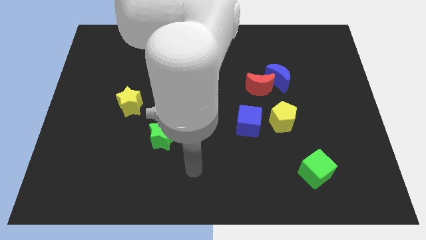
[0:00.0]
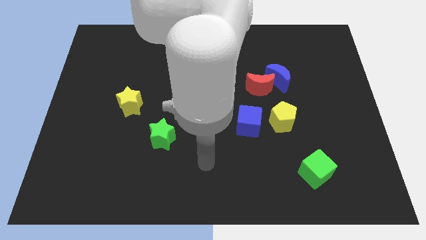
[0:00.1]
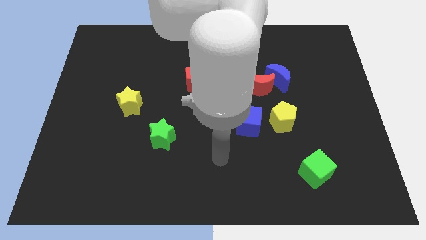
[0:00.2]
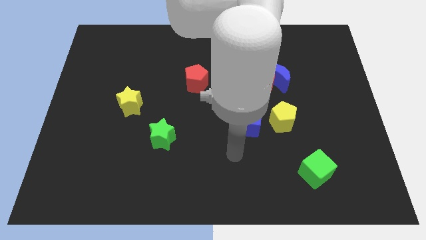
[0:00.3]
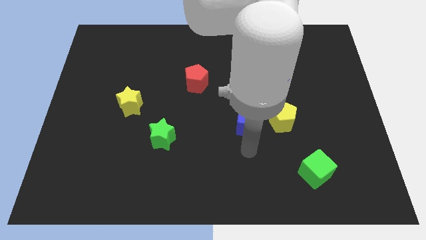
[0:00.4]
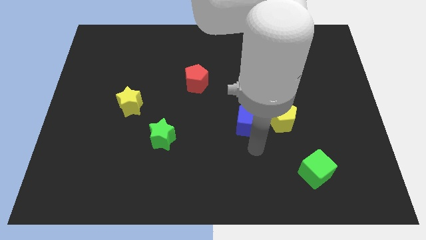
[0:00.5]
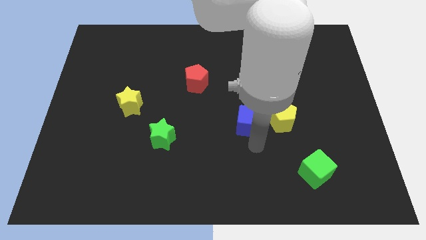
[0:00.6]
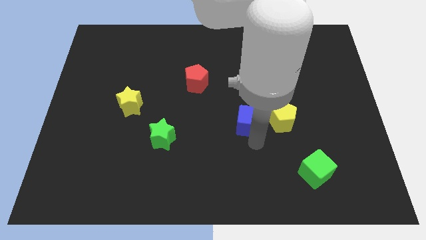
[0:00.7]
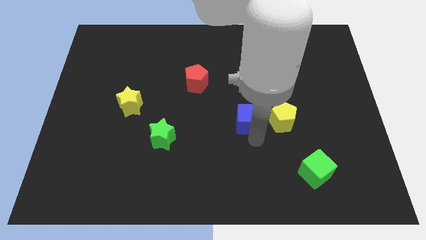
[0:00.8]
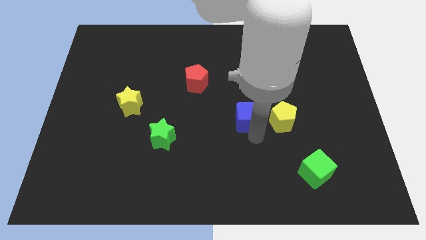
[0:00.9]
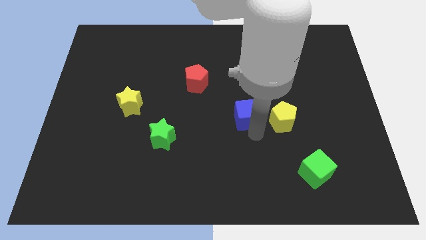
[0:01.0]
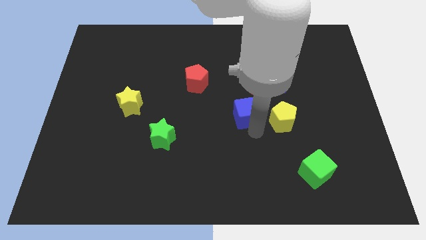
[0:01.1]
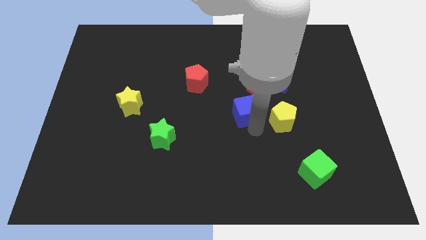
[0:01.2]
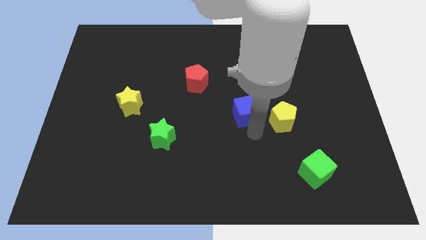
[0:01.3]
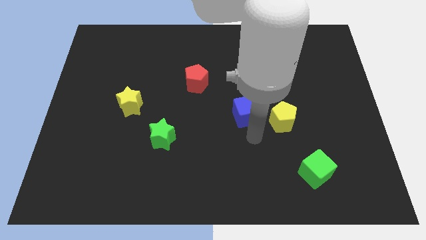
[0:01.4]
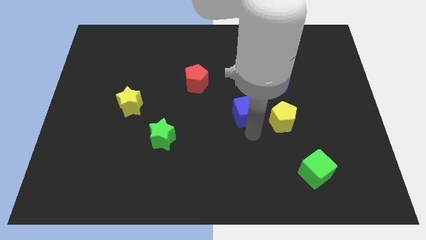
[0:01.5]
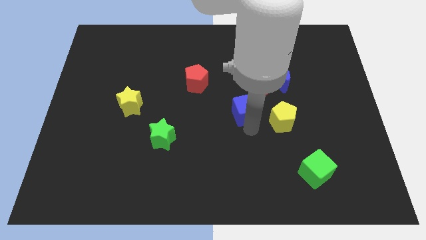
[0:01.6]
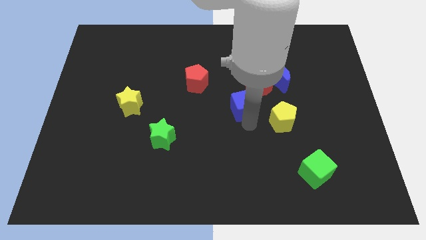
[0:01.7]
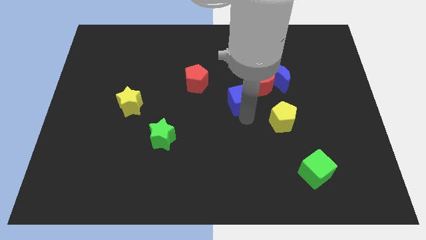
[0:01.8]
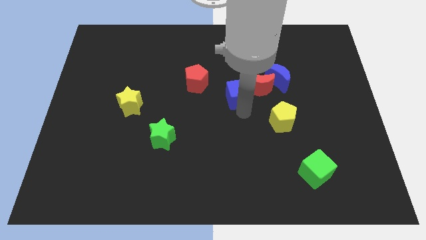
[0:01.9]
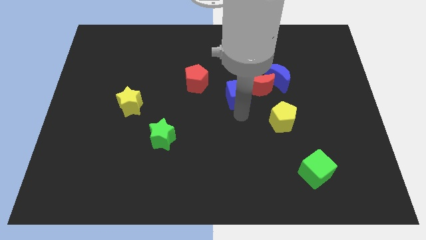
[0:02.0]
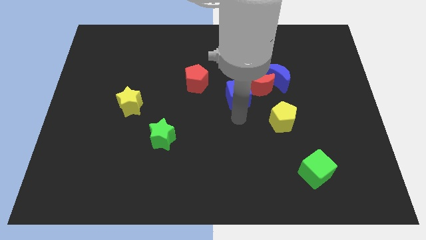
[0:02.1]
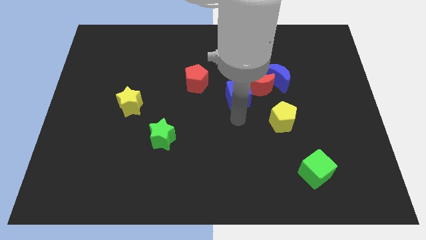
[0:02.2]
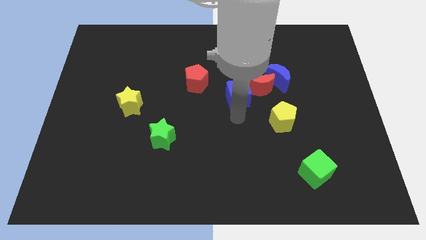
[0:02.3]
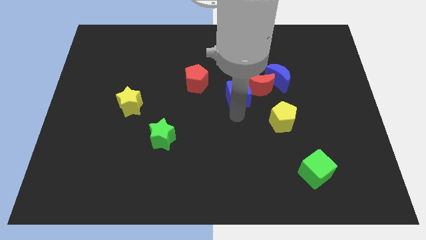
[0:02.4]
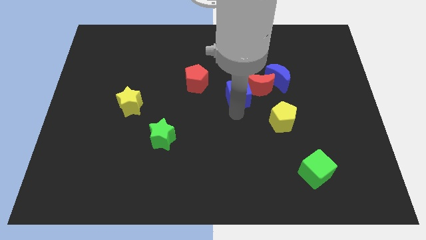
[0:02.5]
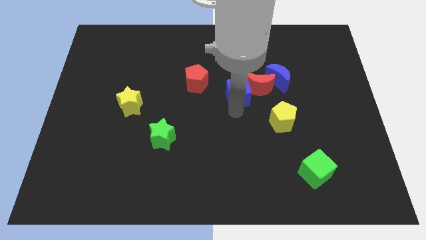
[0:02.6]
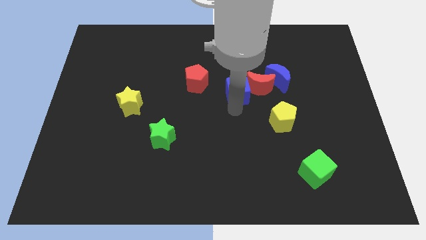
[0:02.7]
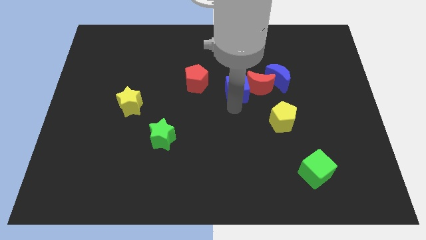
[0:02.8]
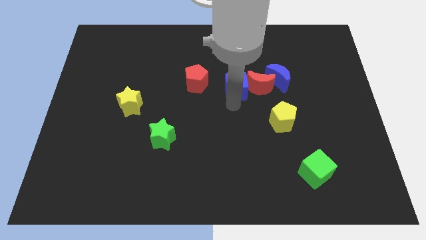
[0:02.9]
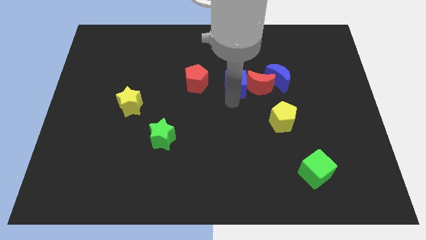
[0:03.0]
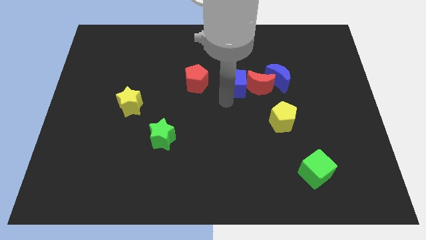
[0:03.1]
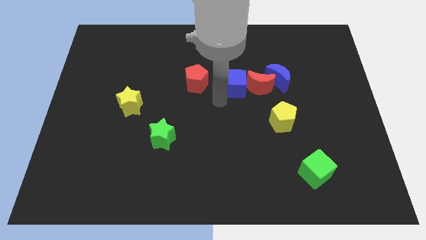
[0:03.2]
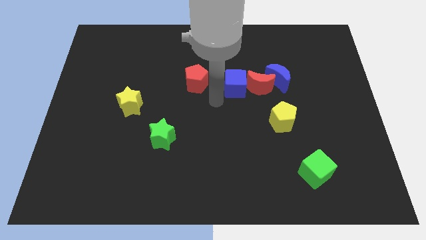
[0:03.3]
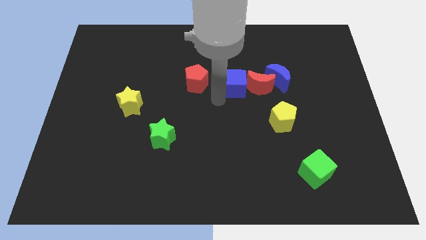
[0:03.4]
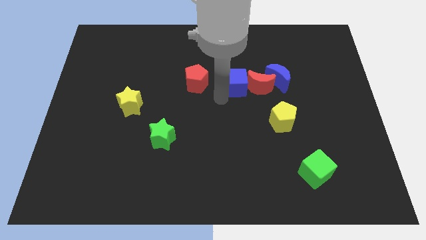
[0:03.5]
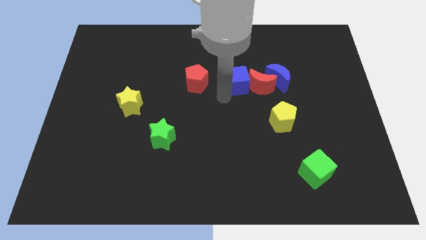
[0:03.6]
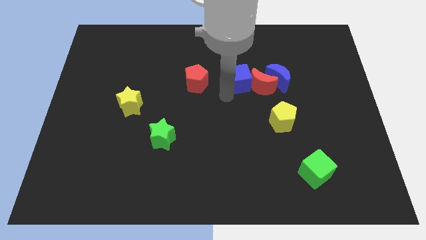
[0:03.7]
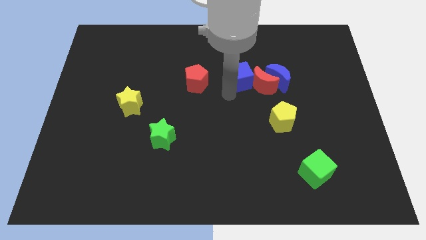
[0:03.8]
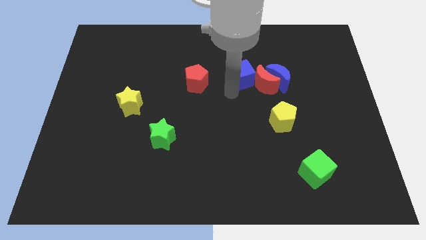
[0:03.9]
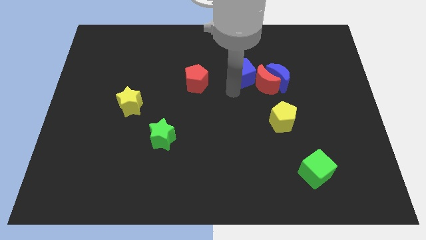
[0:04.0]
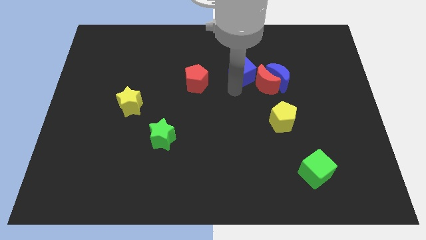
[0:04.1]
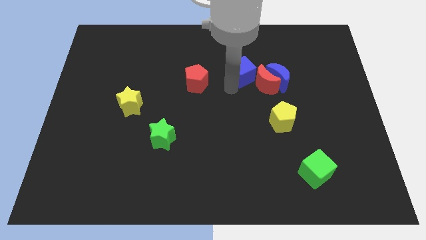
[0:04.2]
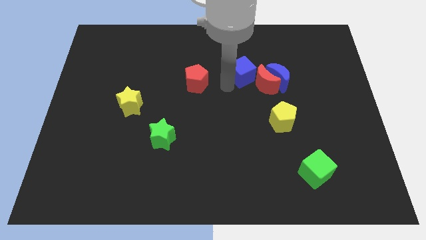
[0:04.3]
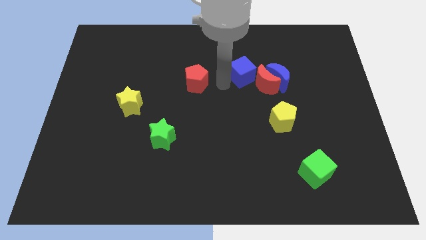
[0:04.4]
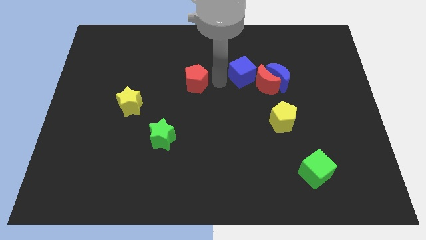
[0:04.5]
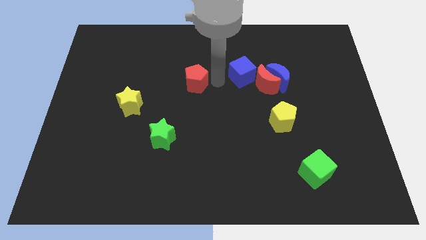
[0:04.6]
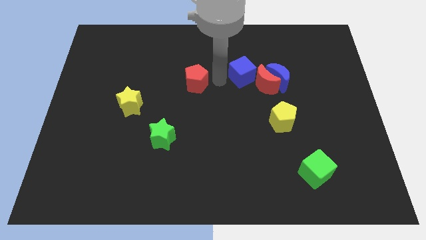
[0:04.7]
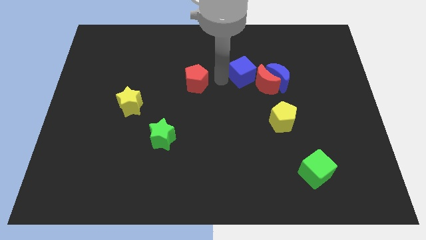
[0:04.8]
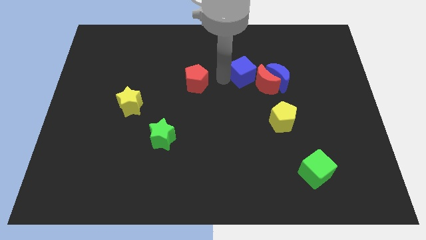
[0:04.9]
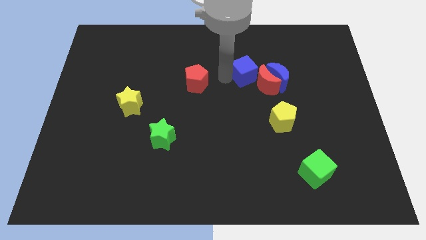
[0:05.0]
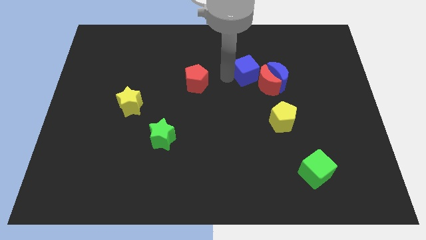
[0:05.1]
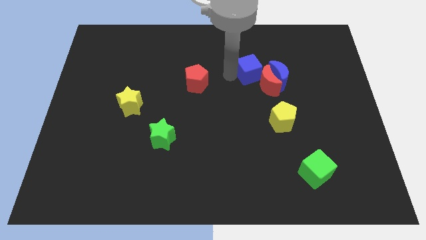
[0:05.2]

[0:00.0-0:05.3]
push the blue cube above the red moon

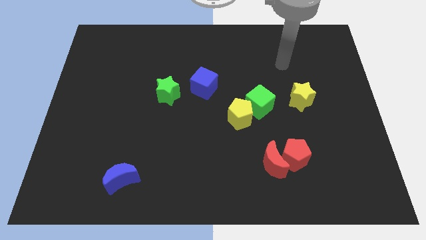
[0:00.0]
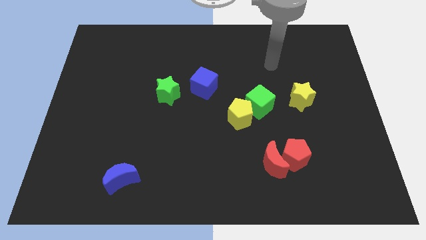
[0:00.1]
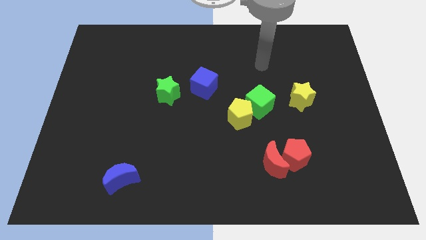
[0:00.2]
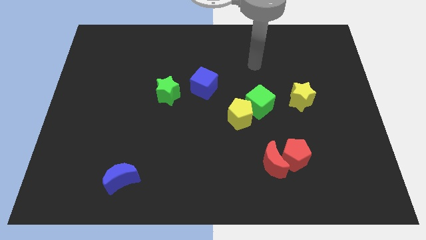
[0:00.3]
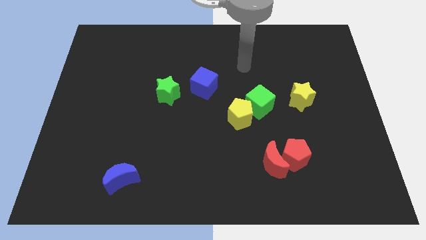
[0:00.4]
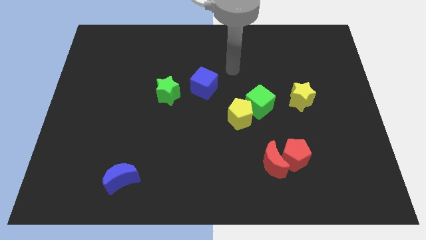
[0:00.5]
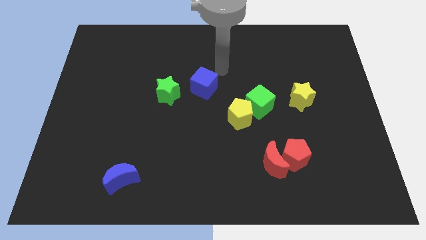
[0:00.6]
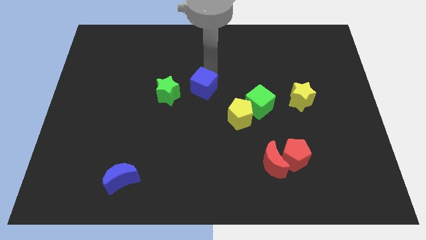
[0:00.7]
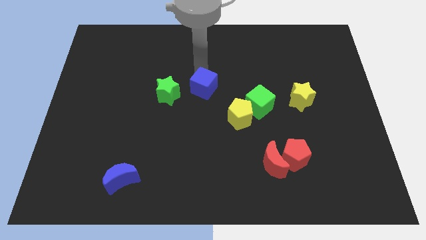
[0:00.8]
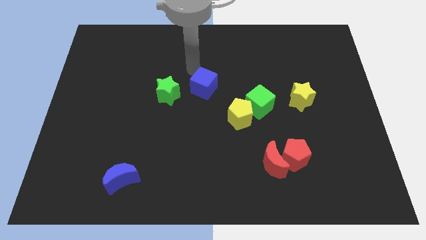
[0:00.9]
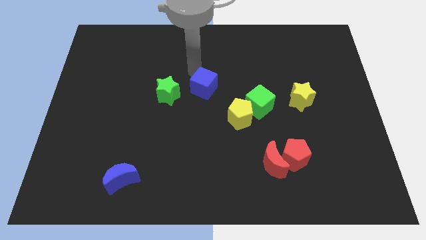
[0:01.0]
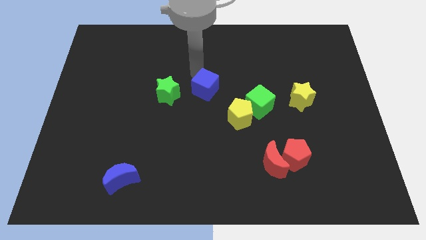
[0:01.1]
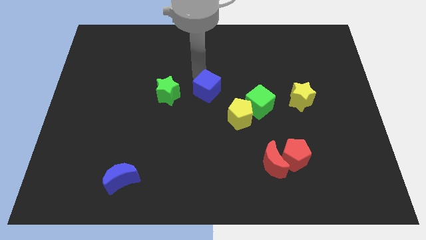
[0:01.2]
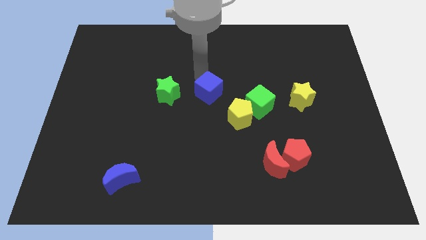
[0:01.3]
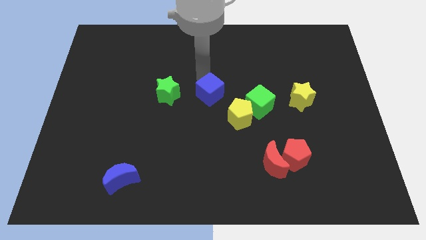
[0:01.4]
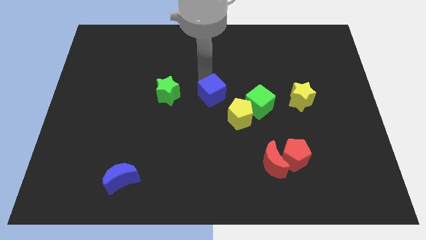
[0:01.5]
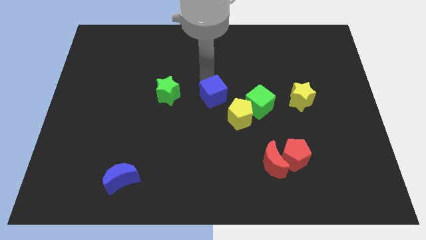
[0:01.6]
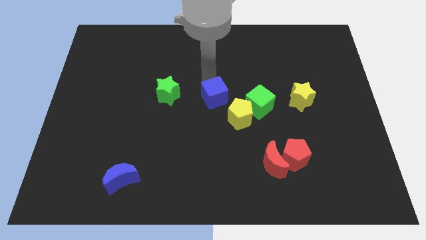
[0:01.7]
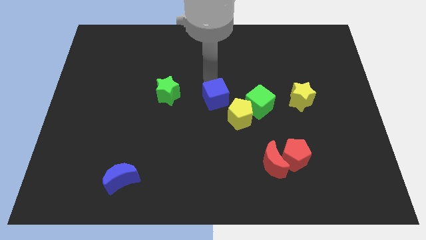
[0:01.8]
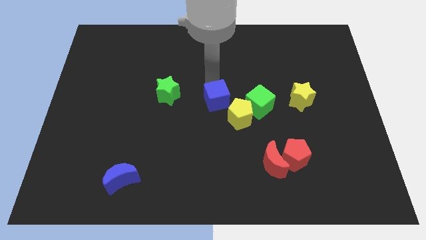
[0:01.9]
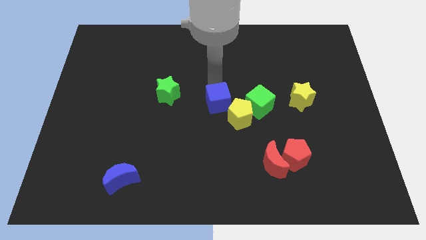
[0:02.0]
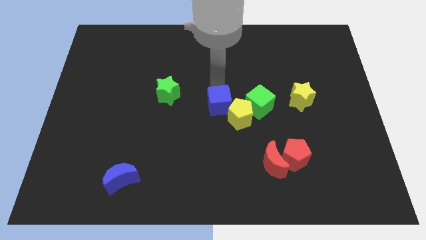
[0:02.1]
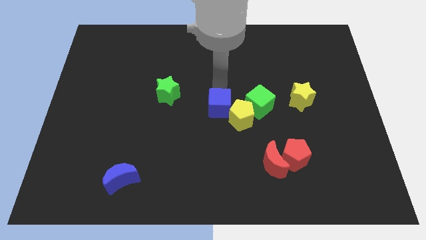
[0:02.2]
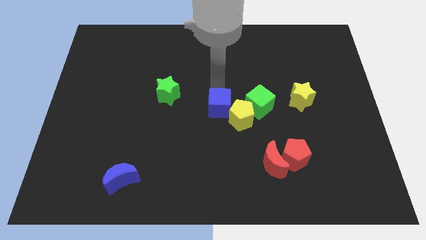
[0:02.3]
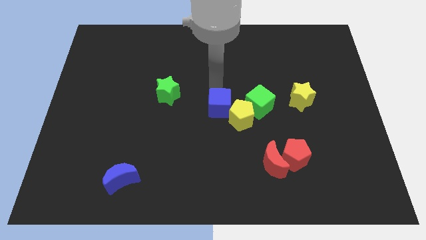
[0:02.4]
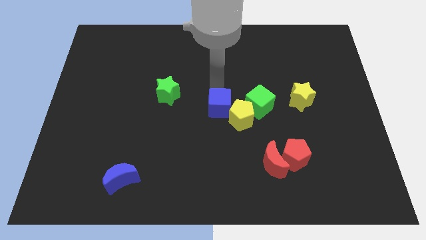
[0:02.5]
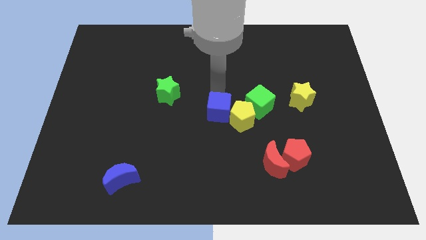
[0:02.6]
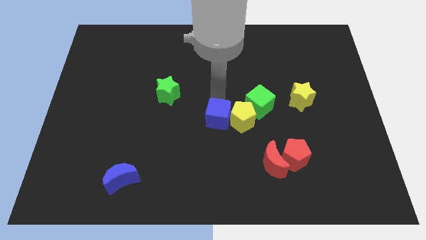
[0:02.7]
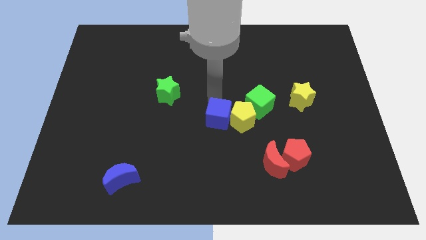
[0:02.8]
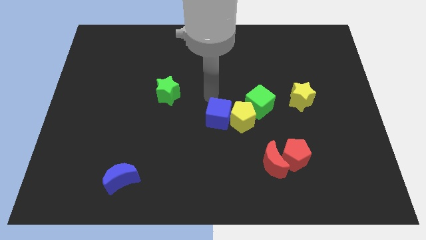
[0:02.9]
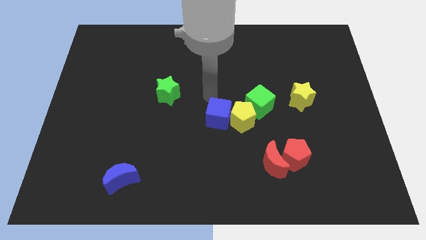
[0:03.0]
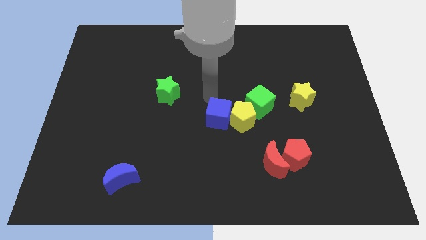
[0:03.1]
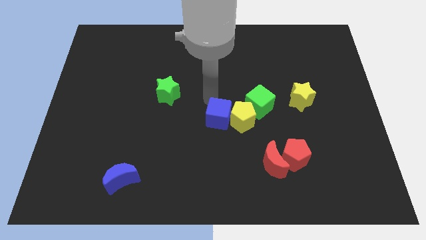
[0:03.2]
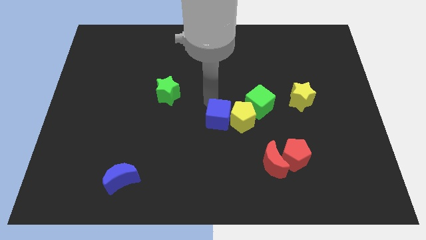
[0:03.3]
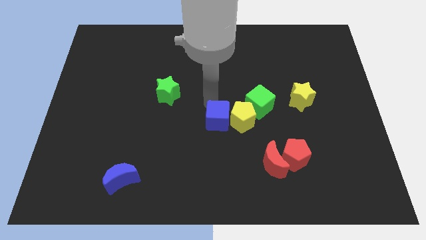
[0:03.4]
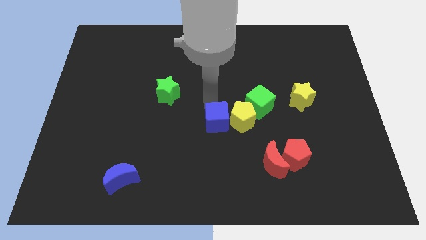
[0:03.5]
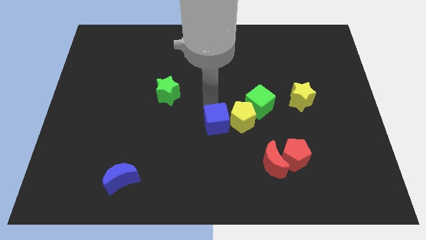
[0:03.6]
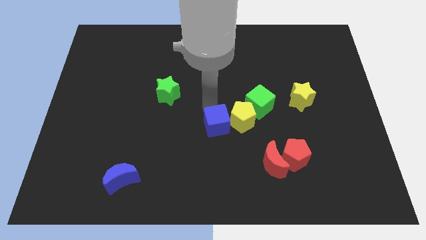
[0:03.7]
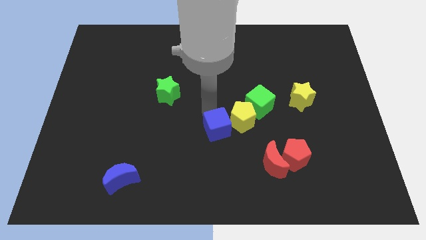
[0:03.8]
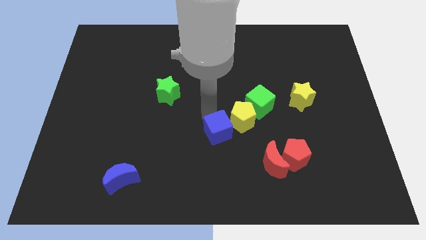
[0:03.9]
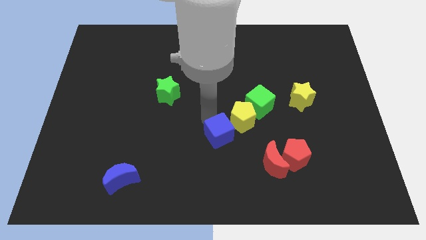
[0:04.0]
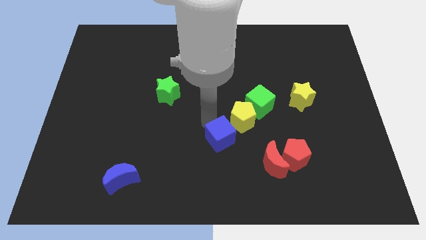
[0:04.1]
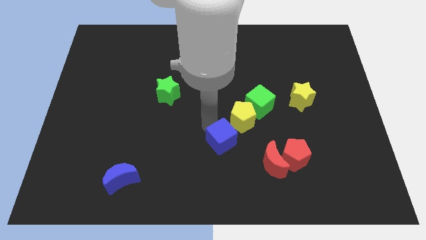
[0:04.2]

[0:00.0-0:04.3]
move the blue cube to the bottom of the yellow pentagon
